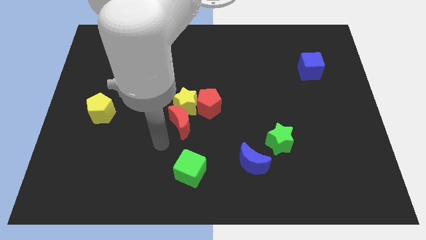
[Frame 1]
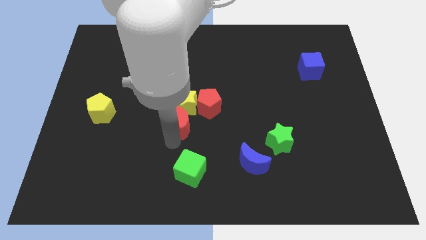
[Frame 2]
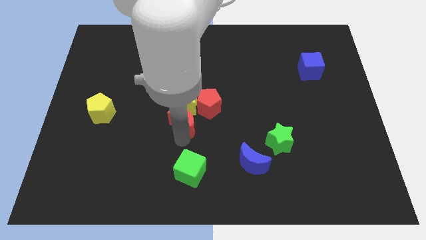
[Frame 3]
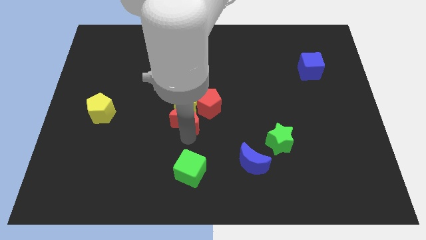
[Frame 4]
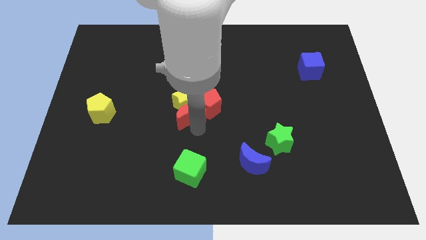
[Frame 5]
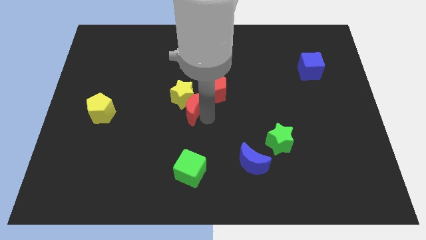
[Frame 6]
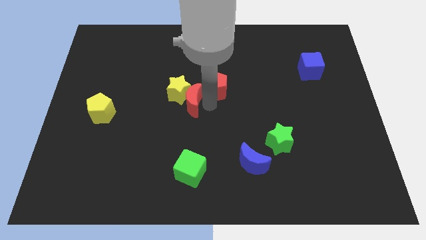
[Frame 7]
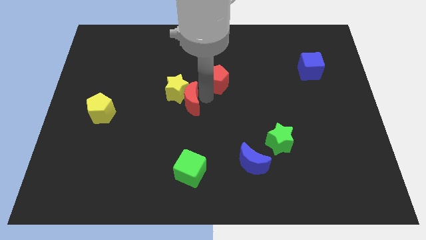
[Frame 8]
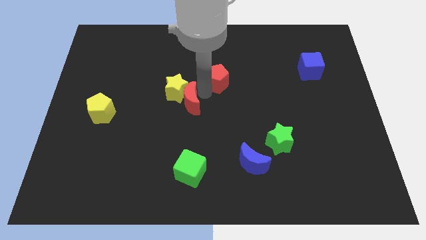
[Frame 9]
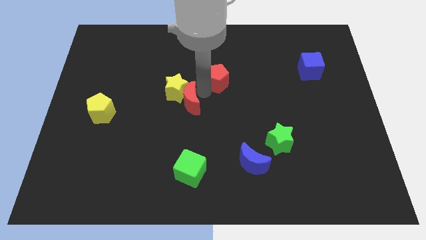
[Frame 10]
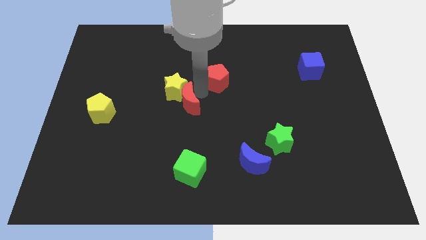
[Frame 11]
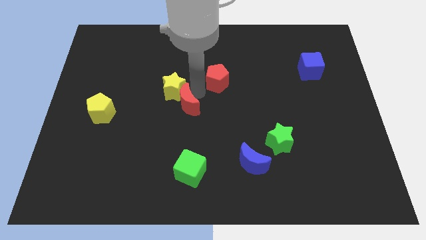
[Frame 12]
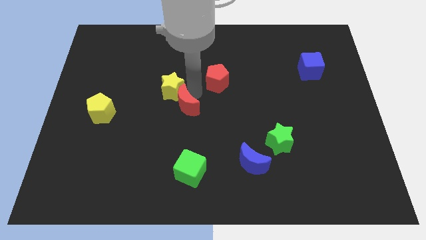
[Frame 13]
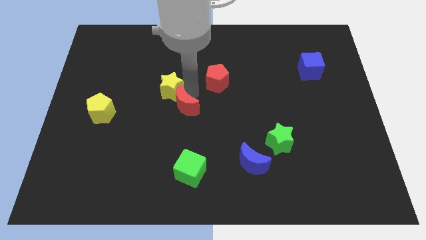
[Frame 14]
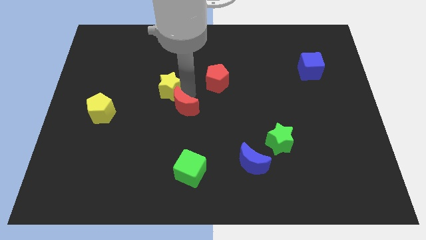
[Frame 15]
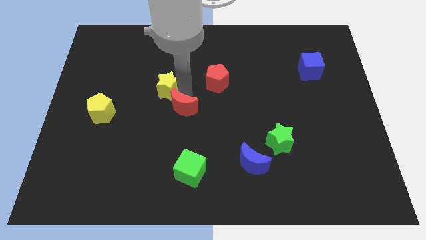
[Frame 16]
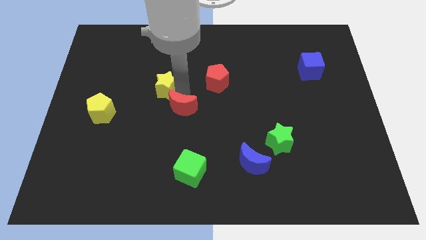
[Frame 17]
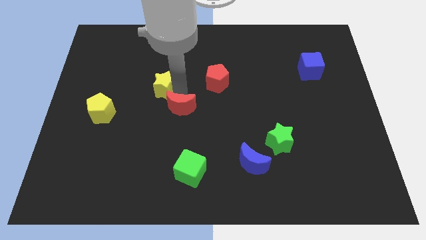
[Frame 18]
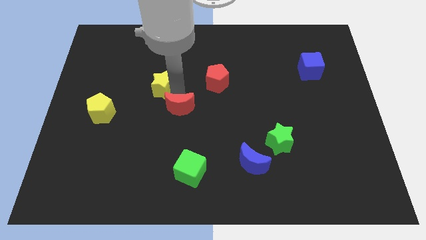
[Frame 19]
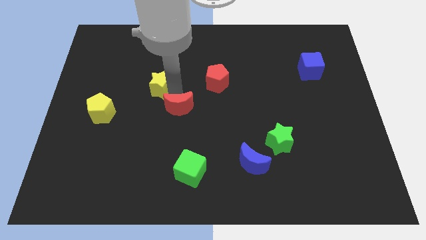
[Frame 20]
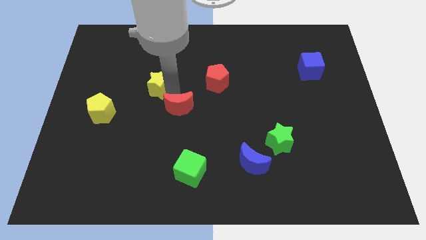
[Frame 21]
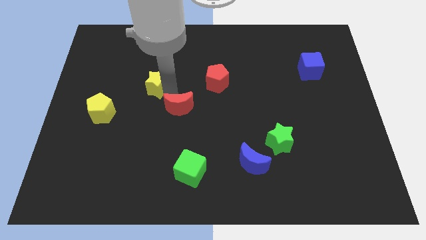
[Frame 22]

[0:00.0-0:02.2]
pull the yellow star apart from the red moon and red pentagon

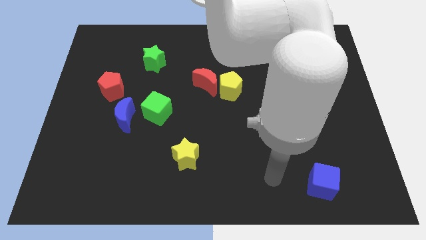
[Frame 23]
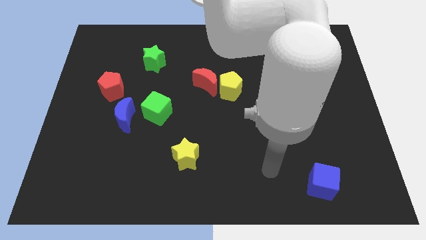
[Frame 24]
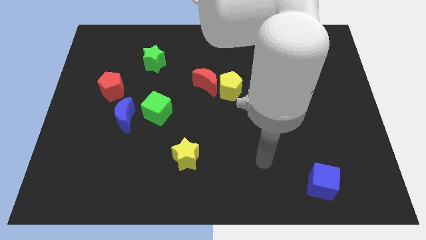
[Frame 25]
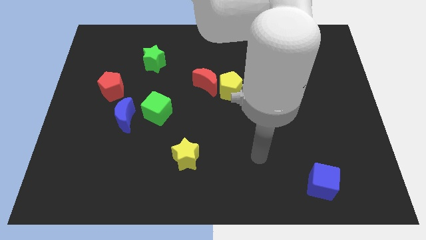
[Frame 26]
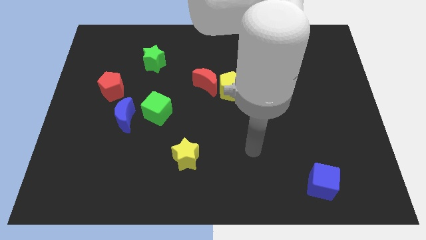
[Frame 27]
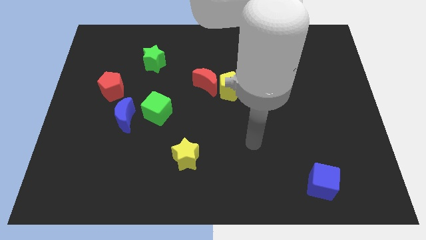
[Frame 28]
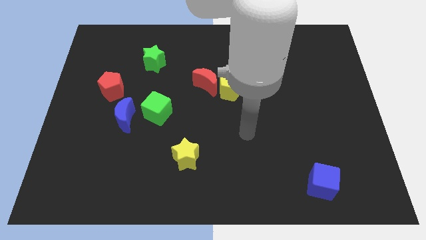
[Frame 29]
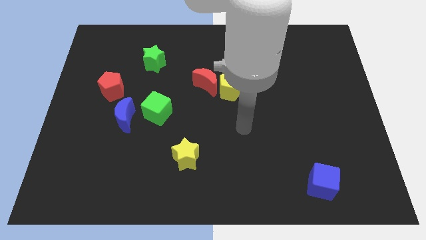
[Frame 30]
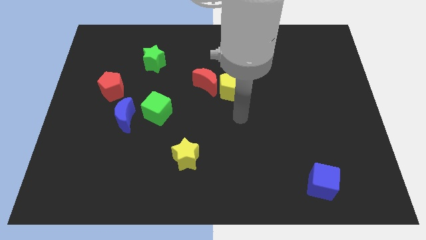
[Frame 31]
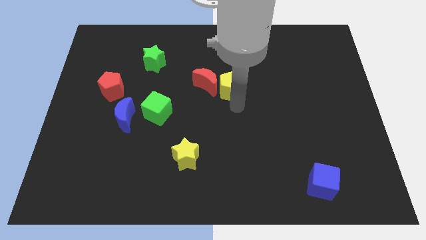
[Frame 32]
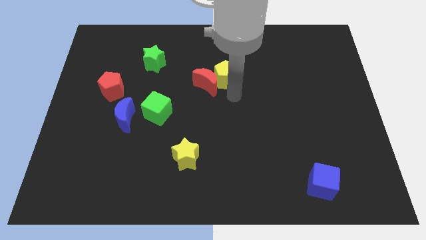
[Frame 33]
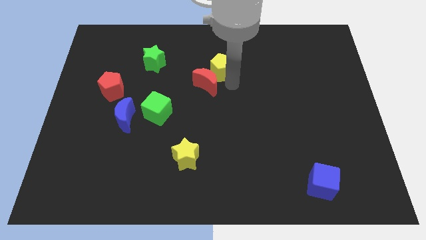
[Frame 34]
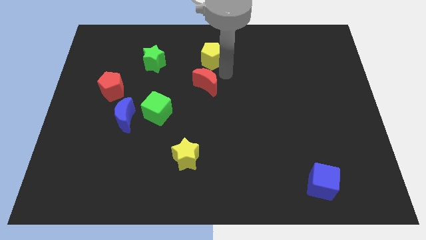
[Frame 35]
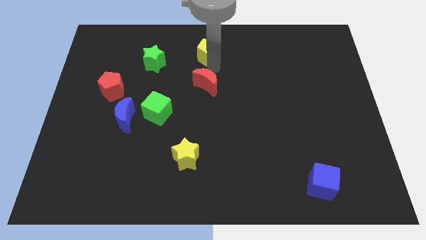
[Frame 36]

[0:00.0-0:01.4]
separate the red moon from the yellow pentagon

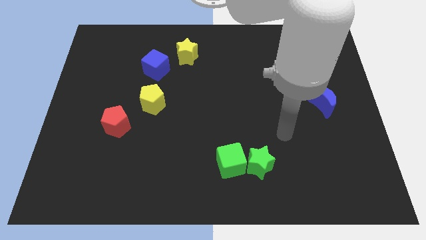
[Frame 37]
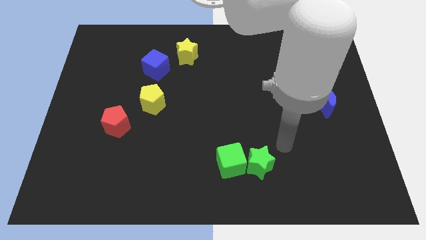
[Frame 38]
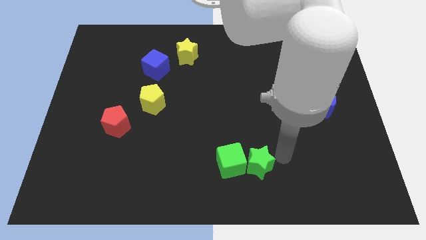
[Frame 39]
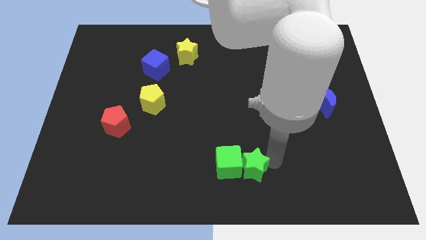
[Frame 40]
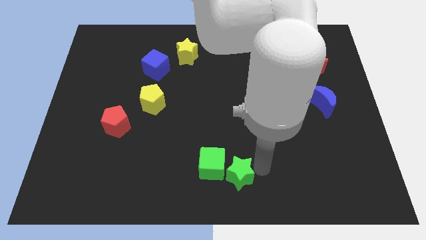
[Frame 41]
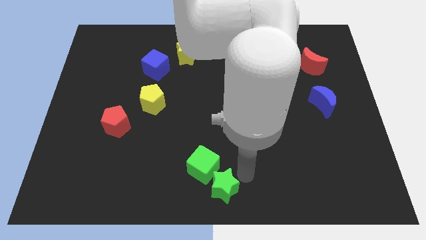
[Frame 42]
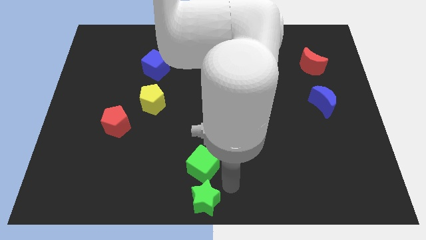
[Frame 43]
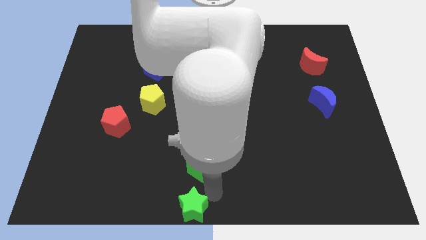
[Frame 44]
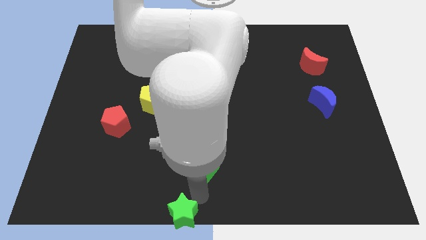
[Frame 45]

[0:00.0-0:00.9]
separate the green cube from the green star

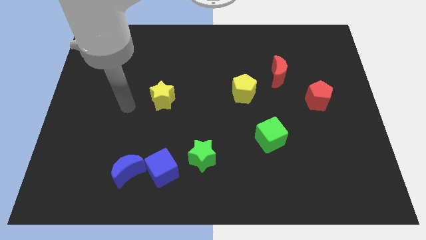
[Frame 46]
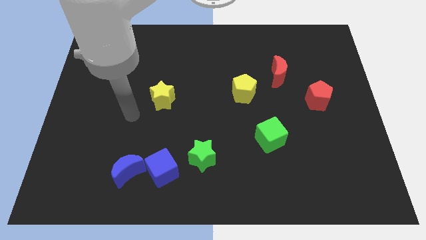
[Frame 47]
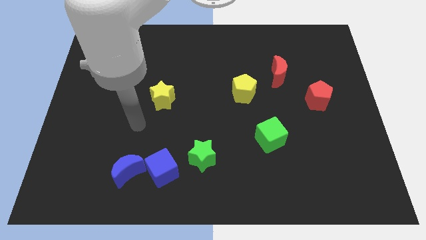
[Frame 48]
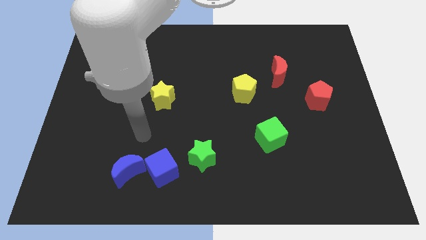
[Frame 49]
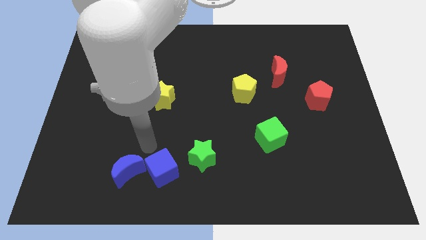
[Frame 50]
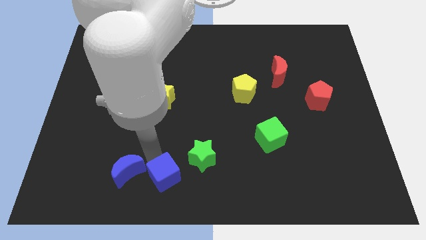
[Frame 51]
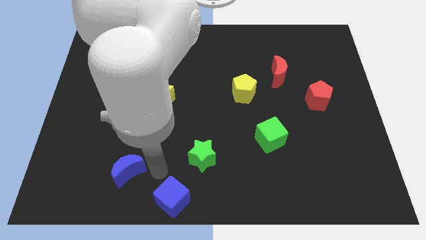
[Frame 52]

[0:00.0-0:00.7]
pull the blue moon apart from the blue cube

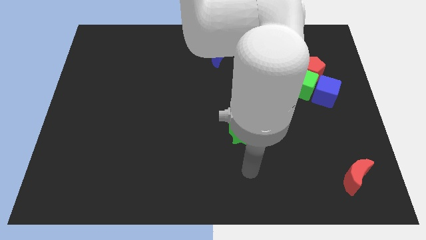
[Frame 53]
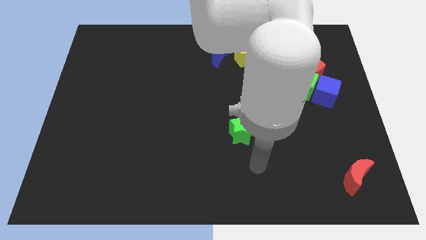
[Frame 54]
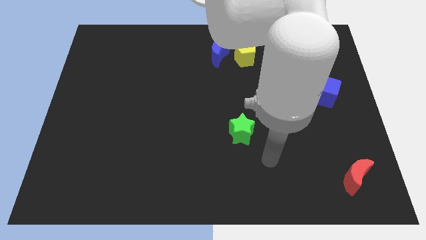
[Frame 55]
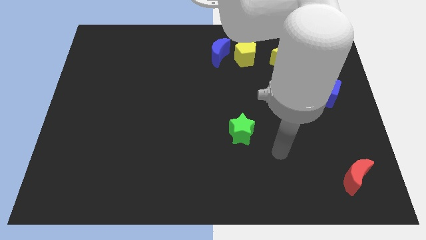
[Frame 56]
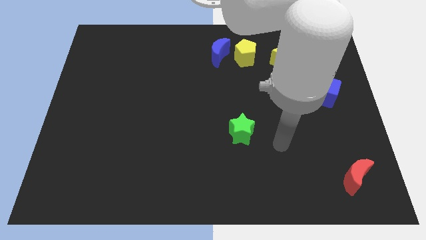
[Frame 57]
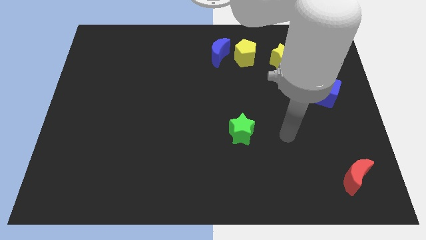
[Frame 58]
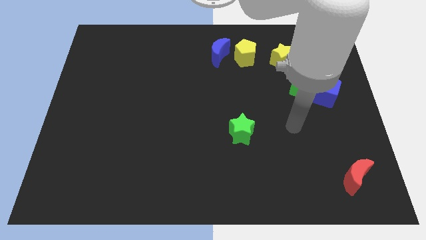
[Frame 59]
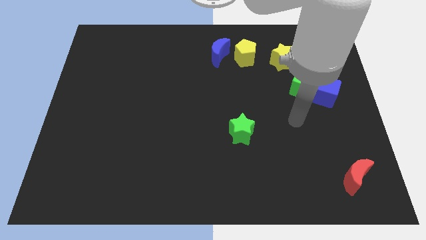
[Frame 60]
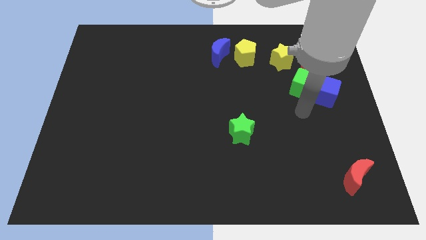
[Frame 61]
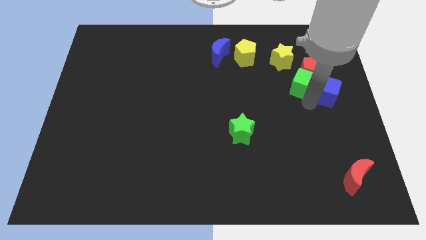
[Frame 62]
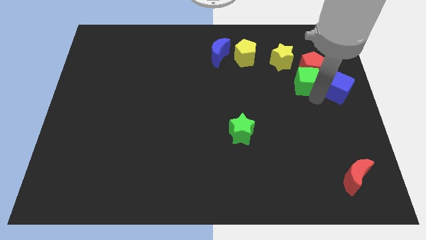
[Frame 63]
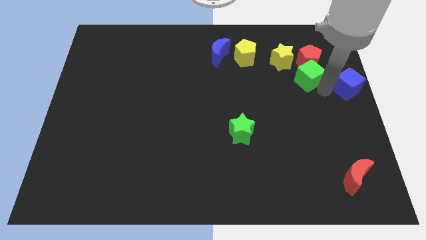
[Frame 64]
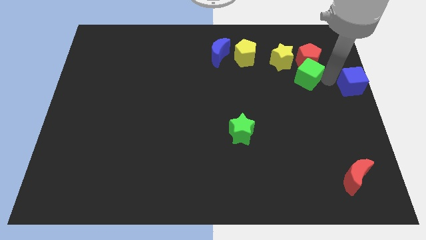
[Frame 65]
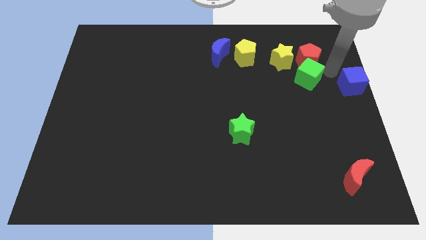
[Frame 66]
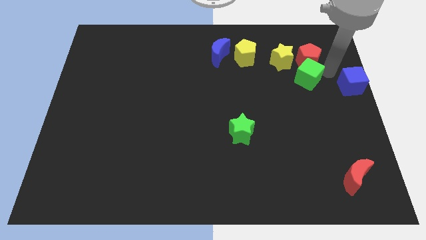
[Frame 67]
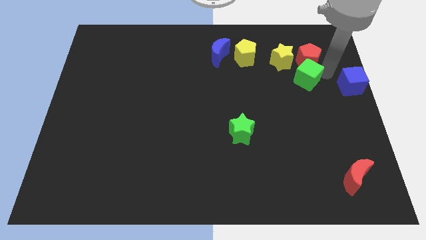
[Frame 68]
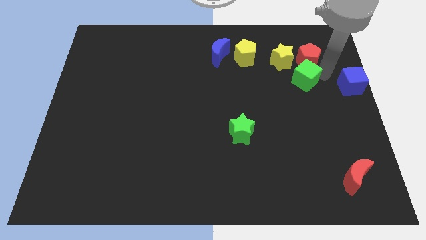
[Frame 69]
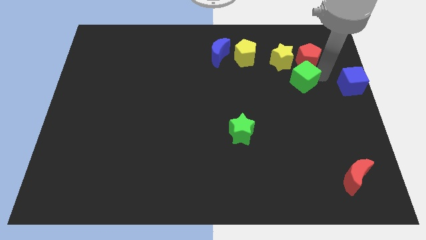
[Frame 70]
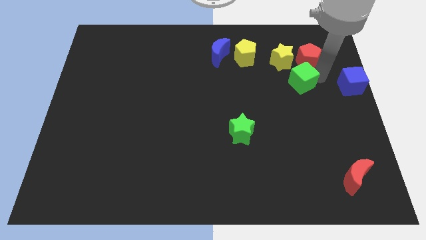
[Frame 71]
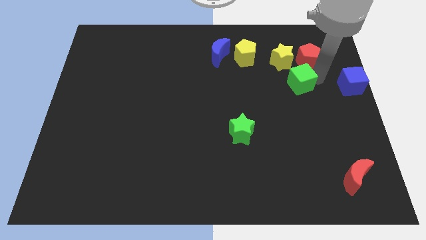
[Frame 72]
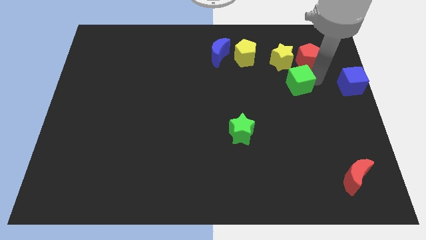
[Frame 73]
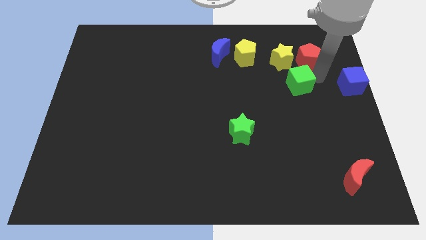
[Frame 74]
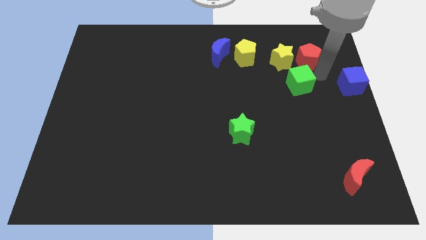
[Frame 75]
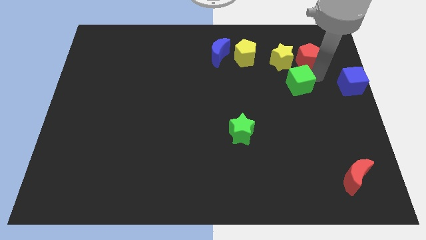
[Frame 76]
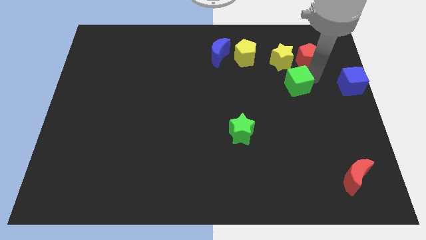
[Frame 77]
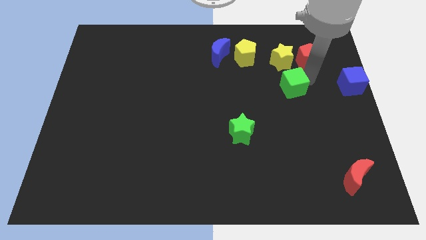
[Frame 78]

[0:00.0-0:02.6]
move the green cube away from the red pentagon and blue cube

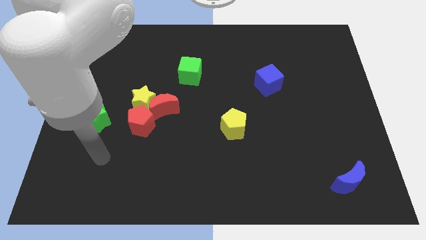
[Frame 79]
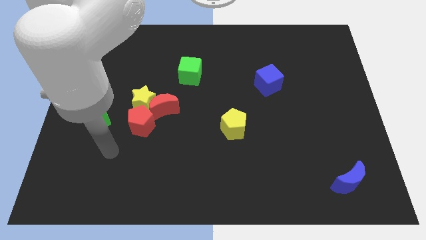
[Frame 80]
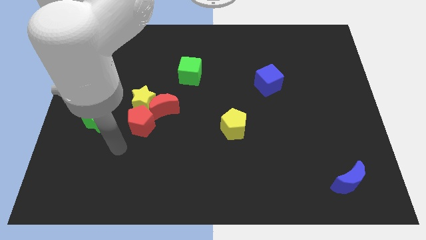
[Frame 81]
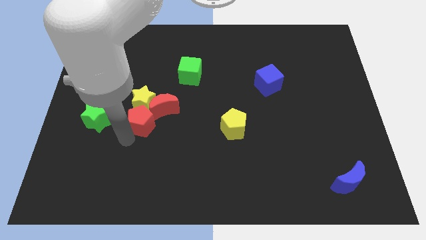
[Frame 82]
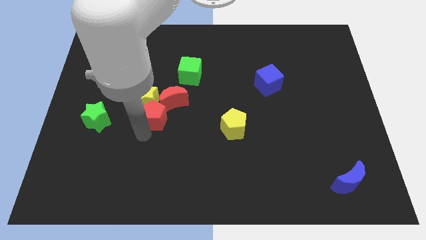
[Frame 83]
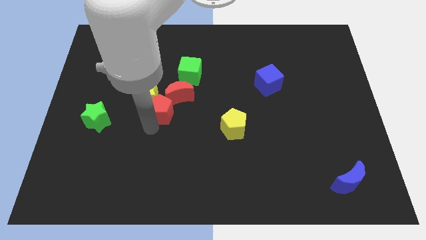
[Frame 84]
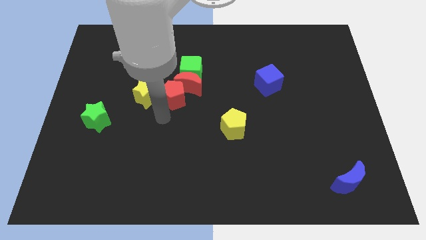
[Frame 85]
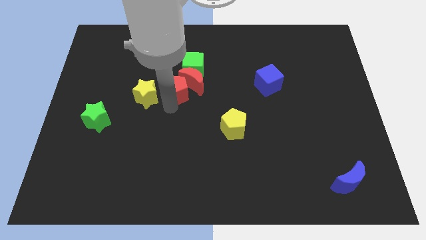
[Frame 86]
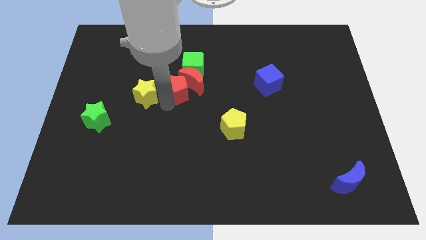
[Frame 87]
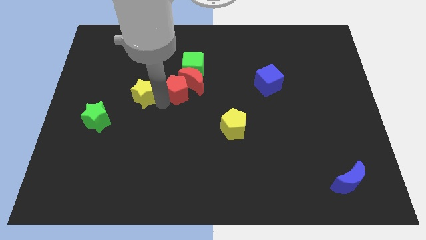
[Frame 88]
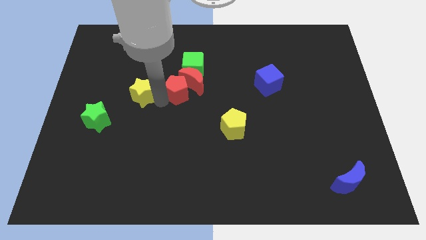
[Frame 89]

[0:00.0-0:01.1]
move the yellow star away from the red moon and red pentagon

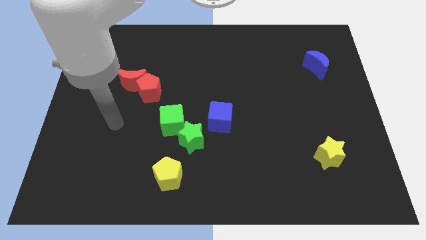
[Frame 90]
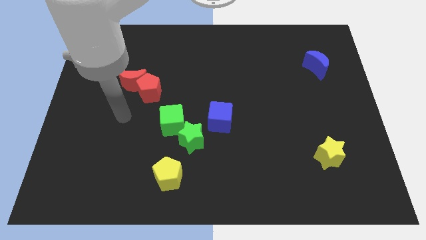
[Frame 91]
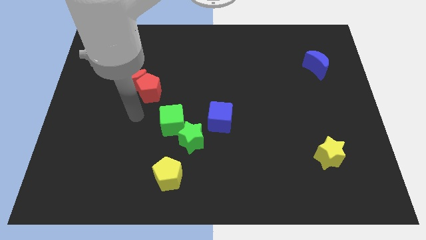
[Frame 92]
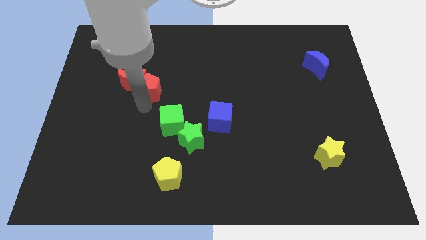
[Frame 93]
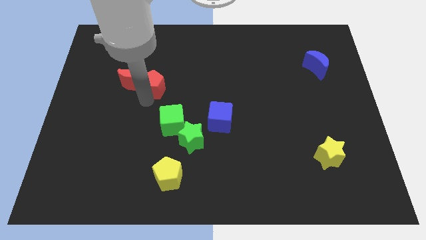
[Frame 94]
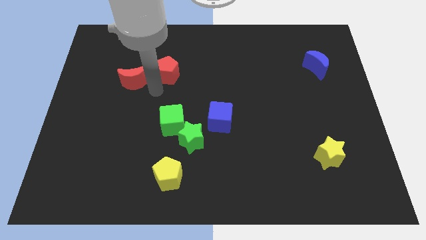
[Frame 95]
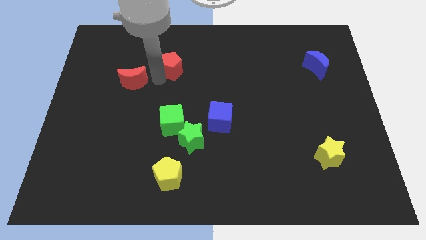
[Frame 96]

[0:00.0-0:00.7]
move the red moon away from the red pentagon
